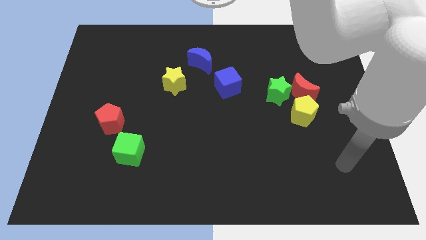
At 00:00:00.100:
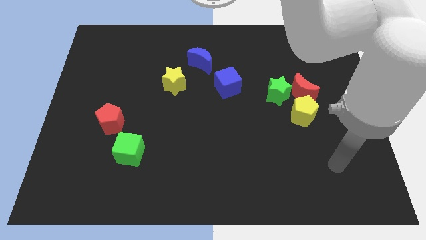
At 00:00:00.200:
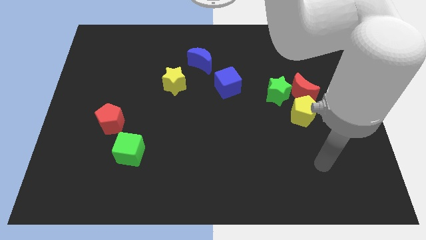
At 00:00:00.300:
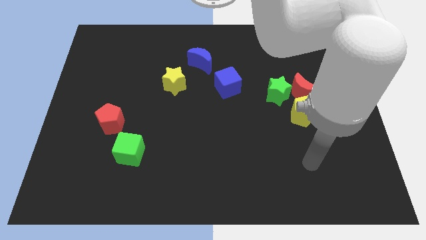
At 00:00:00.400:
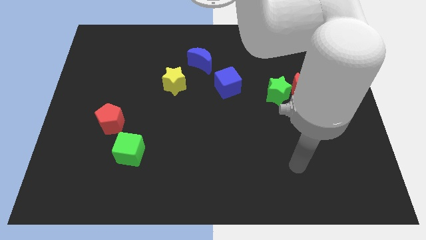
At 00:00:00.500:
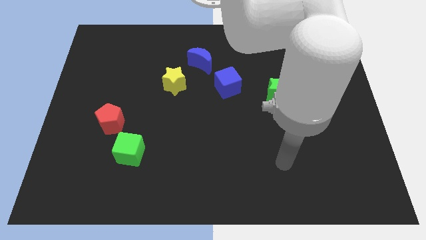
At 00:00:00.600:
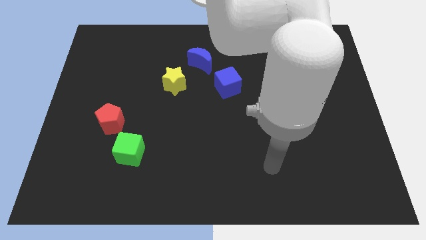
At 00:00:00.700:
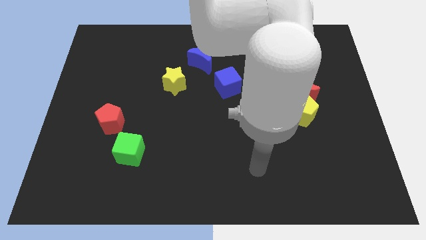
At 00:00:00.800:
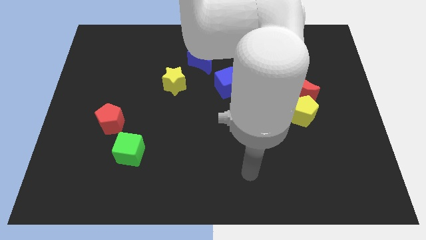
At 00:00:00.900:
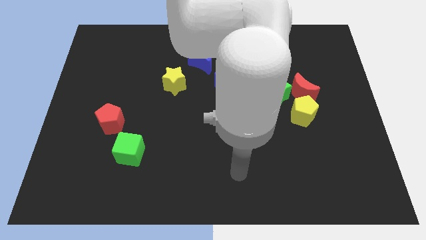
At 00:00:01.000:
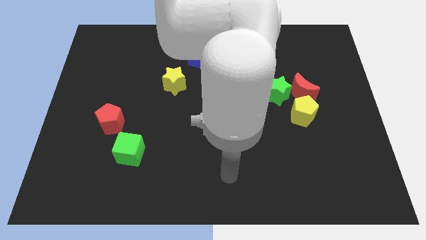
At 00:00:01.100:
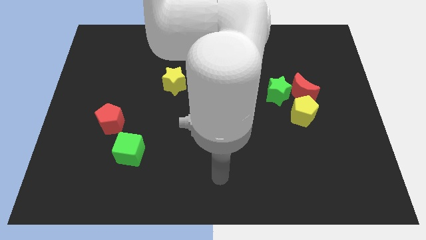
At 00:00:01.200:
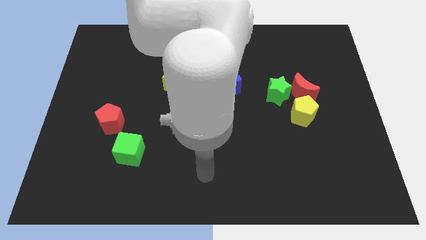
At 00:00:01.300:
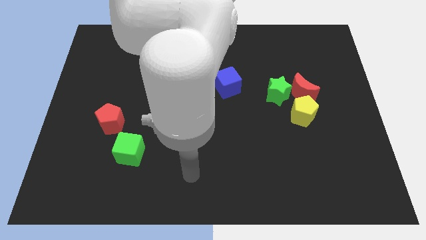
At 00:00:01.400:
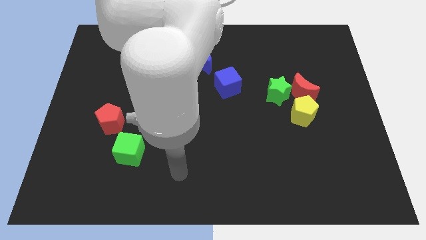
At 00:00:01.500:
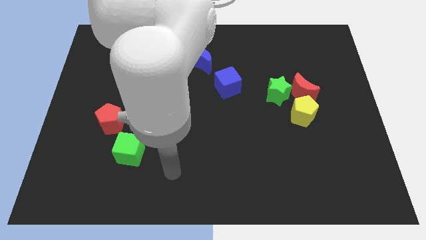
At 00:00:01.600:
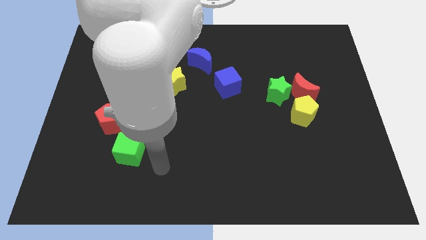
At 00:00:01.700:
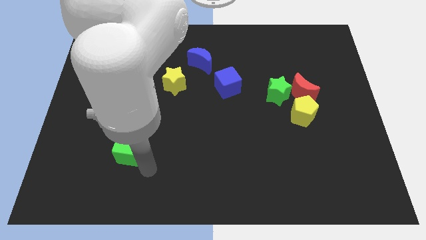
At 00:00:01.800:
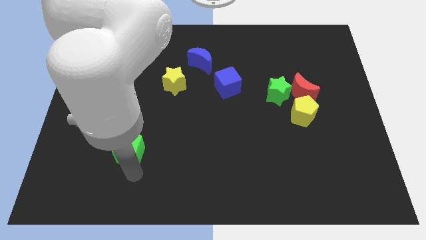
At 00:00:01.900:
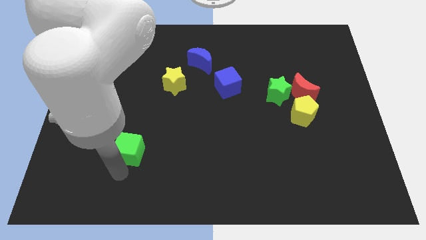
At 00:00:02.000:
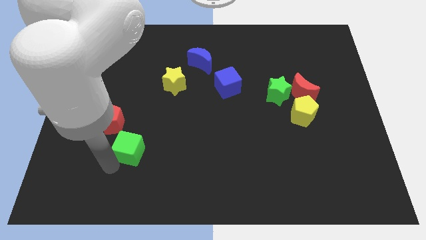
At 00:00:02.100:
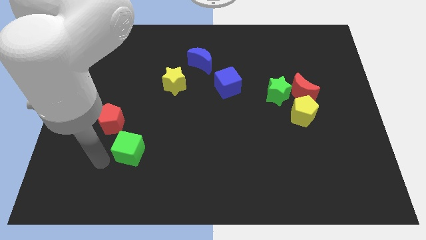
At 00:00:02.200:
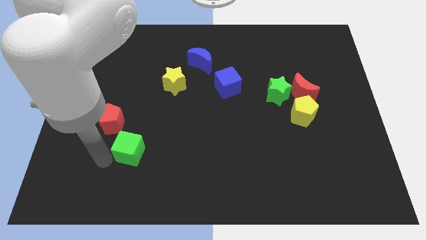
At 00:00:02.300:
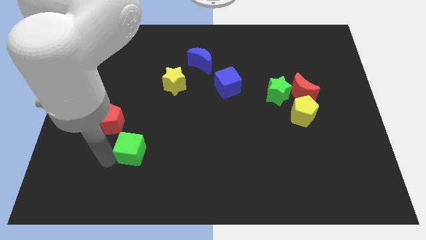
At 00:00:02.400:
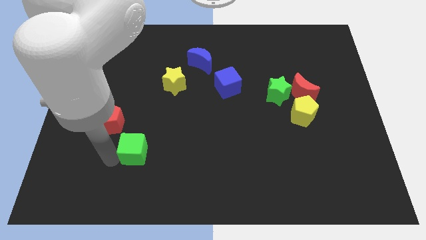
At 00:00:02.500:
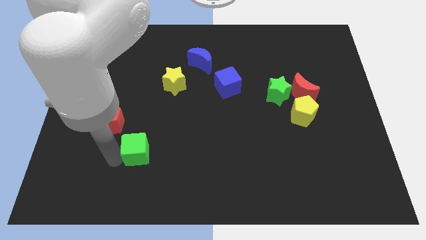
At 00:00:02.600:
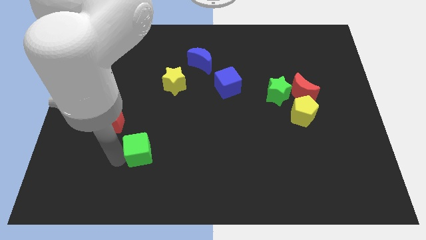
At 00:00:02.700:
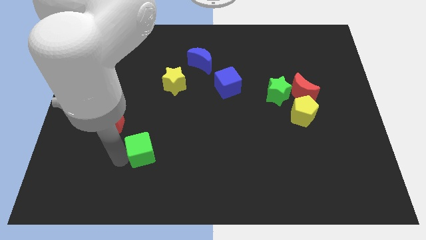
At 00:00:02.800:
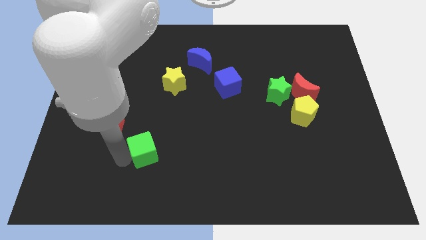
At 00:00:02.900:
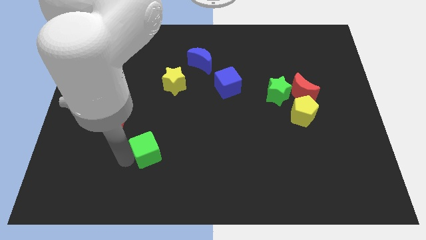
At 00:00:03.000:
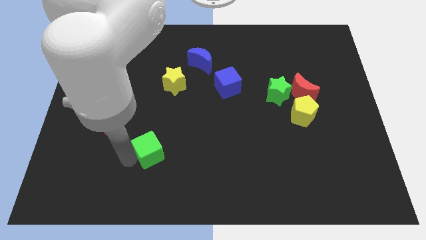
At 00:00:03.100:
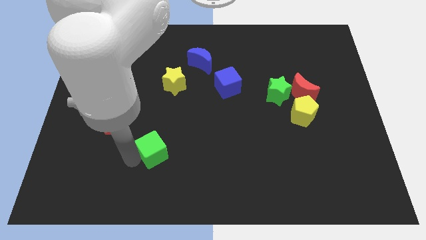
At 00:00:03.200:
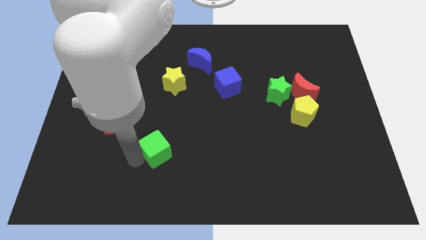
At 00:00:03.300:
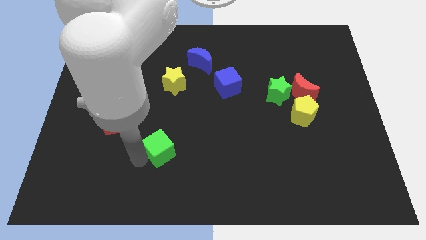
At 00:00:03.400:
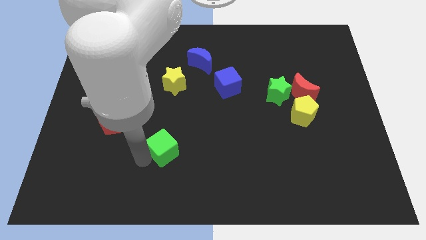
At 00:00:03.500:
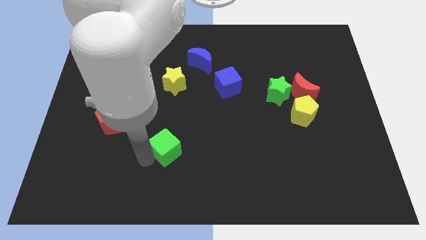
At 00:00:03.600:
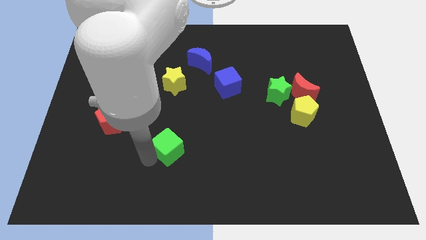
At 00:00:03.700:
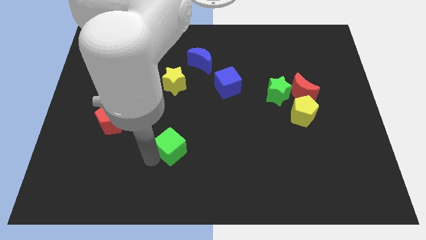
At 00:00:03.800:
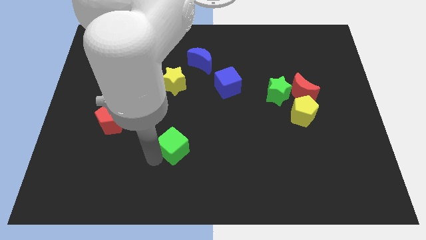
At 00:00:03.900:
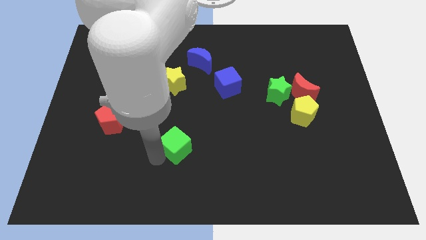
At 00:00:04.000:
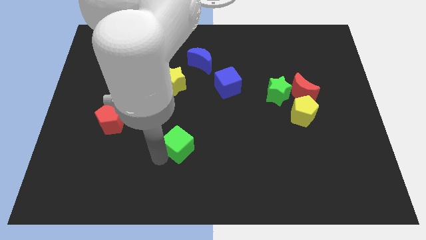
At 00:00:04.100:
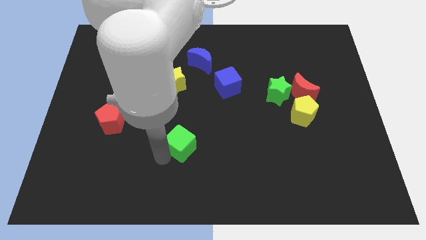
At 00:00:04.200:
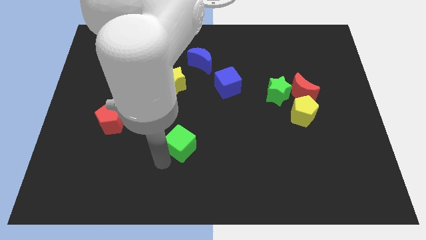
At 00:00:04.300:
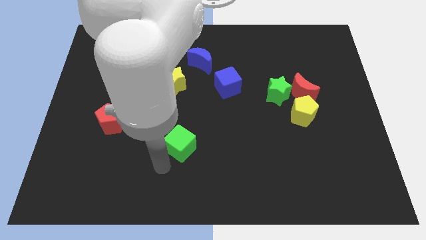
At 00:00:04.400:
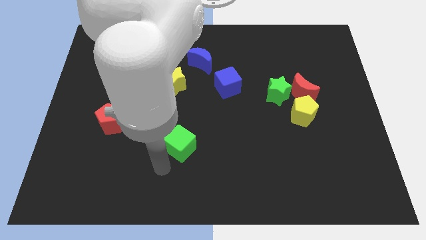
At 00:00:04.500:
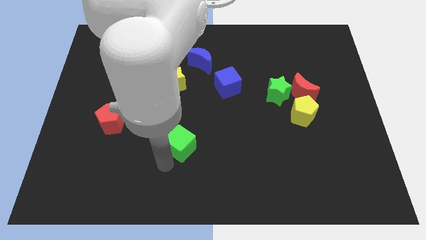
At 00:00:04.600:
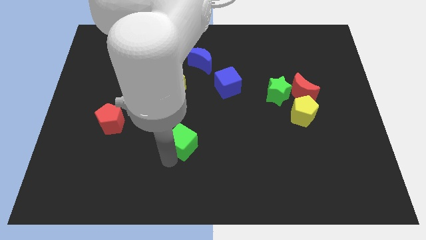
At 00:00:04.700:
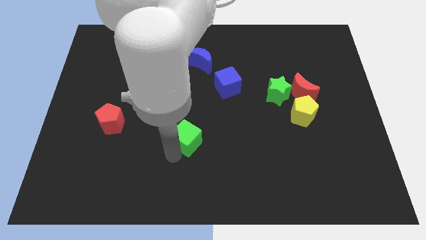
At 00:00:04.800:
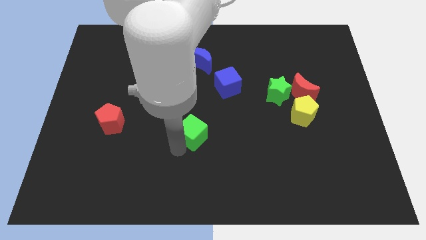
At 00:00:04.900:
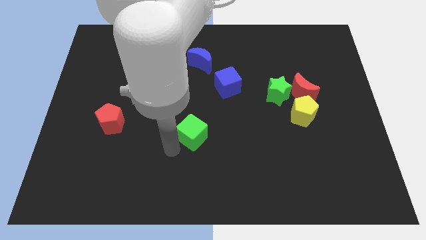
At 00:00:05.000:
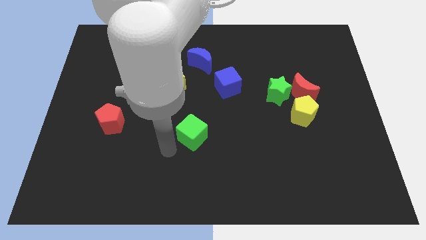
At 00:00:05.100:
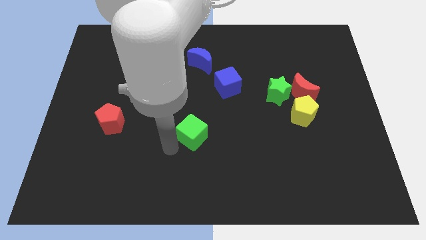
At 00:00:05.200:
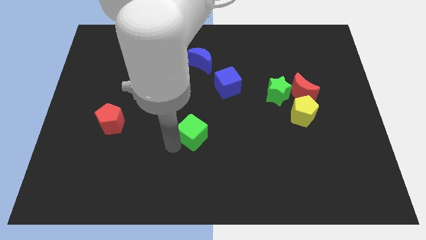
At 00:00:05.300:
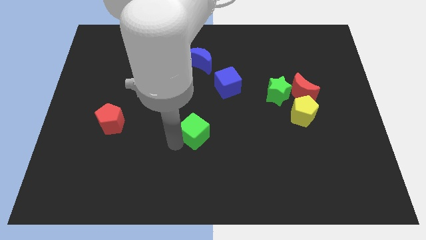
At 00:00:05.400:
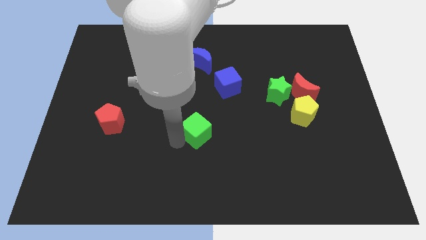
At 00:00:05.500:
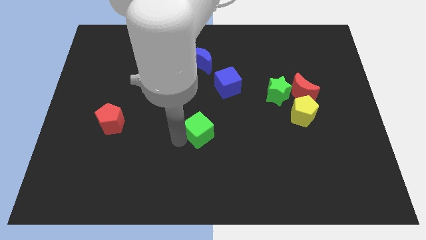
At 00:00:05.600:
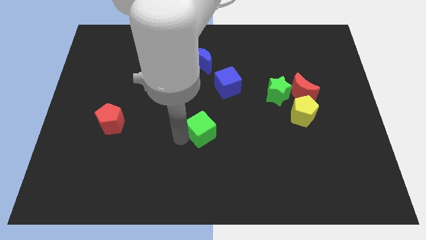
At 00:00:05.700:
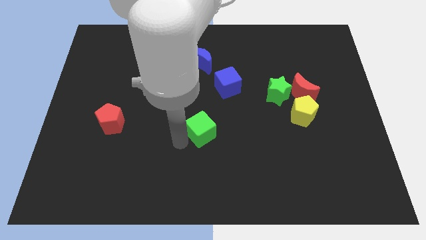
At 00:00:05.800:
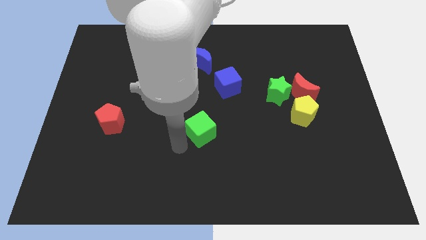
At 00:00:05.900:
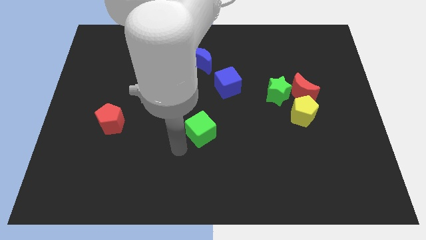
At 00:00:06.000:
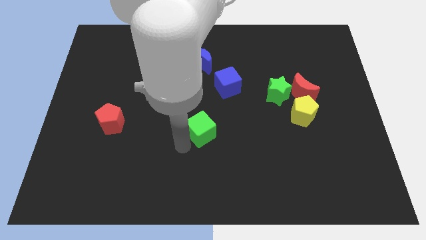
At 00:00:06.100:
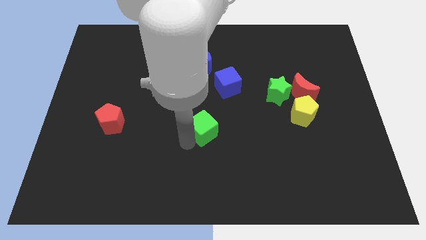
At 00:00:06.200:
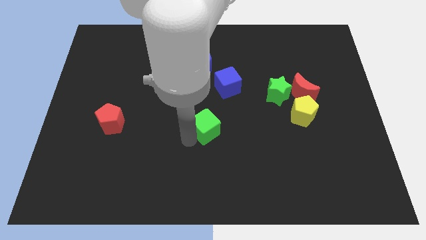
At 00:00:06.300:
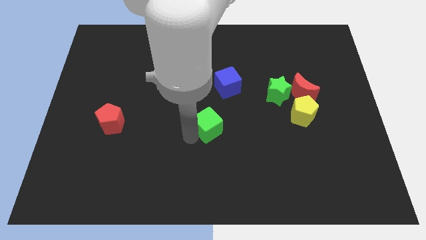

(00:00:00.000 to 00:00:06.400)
push the green cube below the blue cube

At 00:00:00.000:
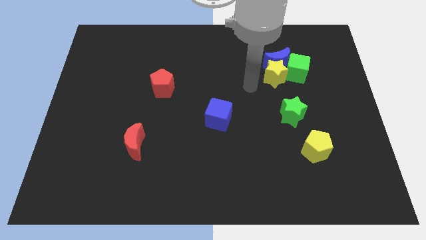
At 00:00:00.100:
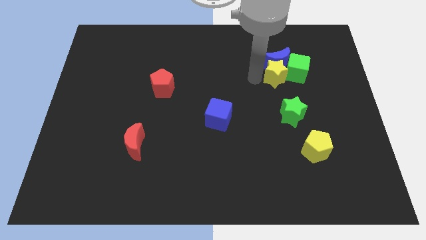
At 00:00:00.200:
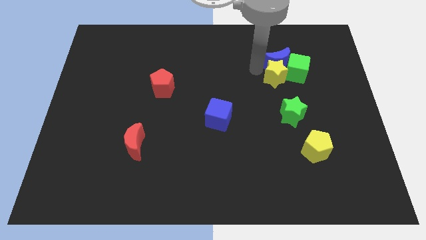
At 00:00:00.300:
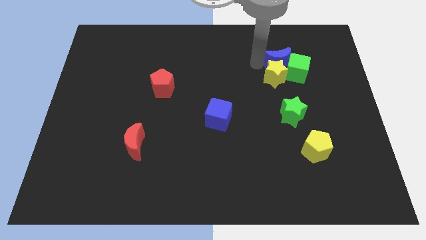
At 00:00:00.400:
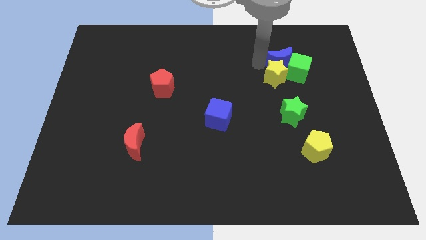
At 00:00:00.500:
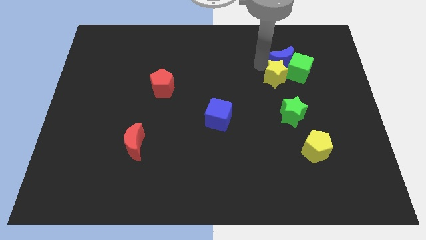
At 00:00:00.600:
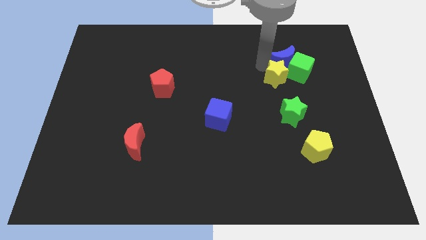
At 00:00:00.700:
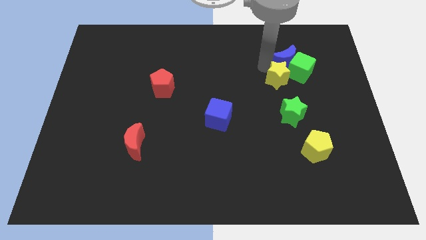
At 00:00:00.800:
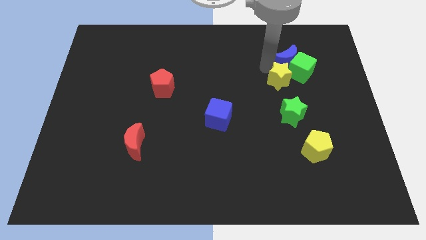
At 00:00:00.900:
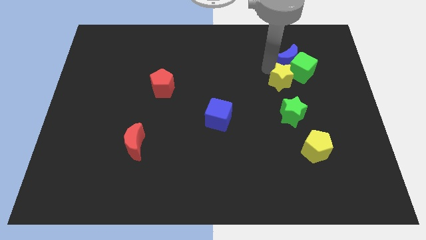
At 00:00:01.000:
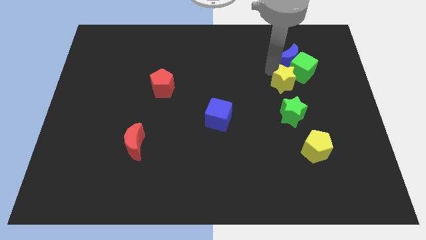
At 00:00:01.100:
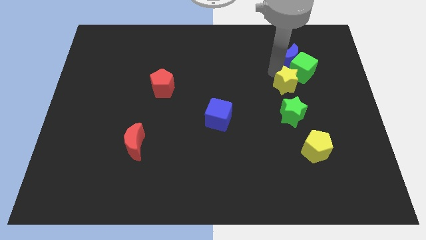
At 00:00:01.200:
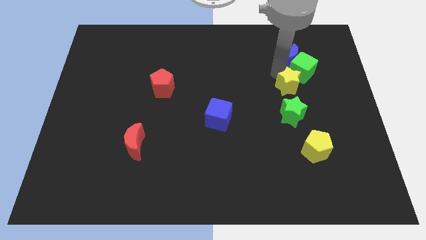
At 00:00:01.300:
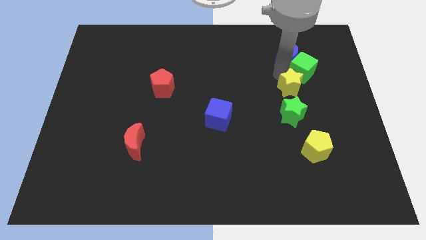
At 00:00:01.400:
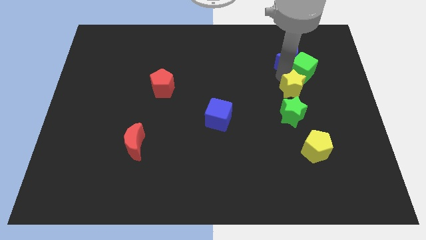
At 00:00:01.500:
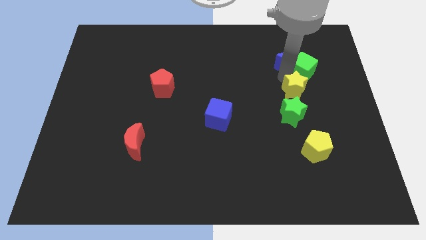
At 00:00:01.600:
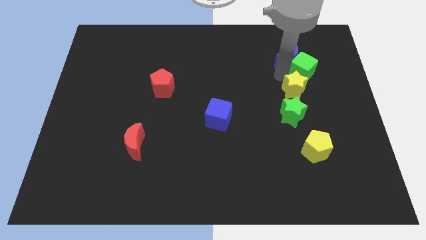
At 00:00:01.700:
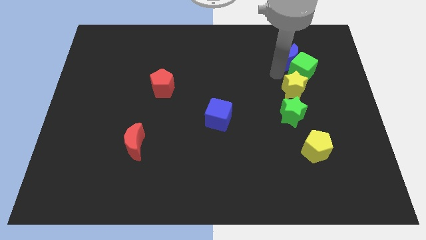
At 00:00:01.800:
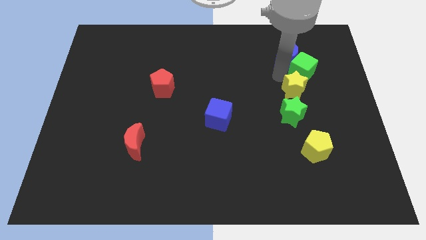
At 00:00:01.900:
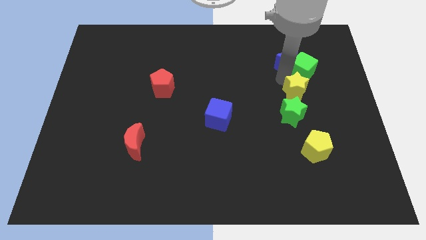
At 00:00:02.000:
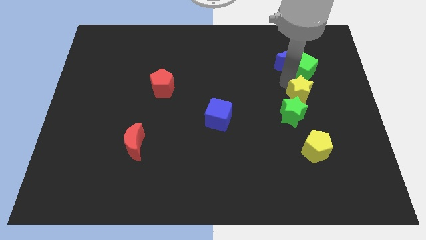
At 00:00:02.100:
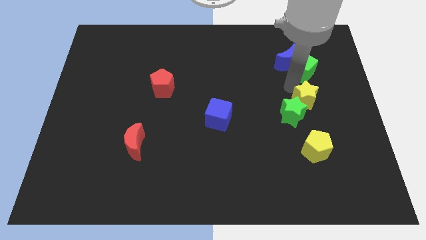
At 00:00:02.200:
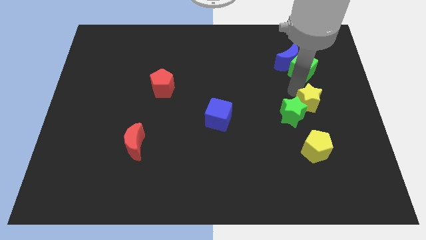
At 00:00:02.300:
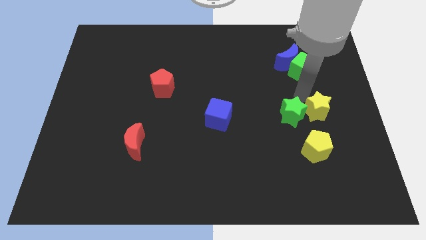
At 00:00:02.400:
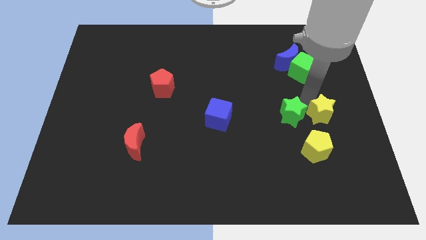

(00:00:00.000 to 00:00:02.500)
put the yellow star diagonally up and to the right of the yellow pentagon
